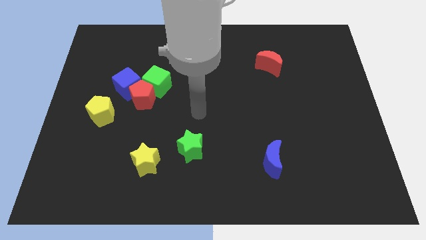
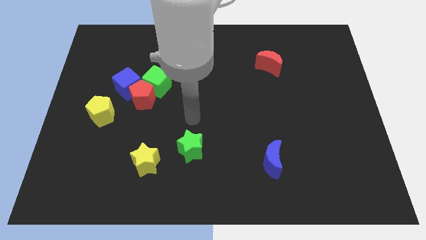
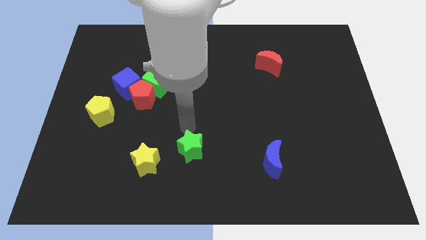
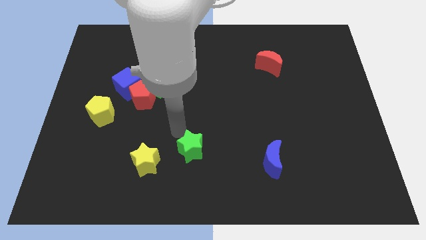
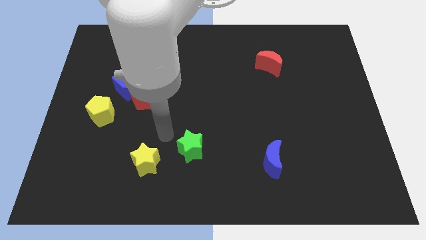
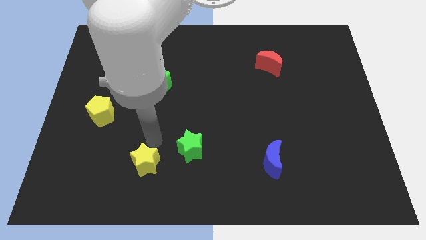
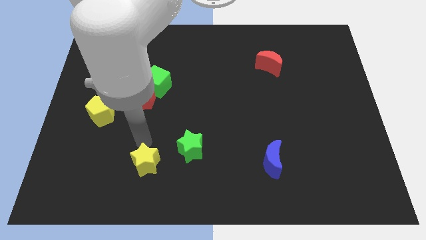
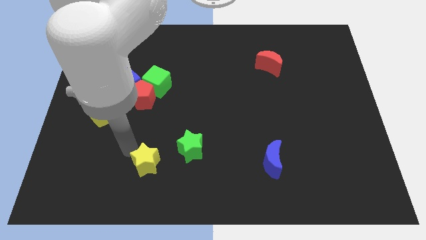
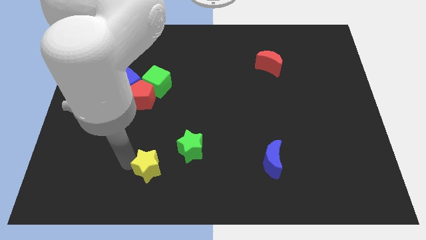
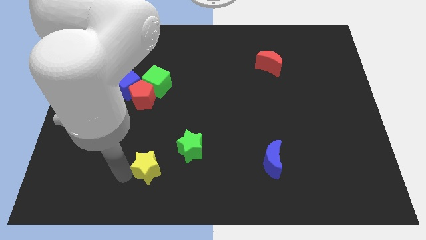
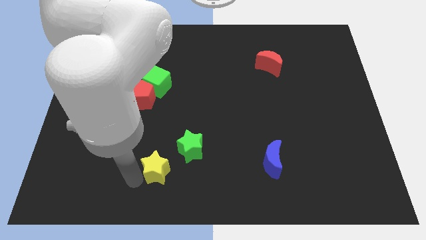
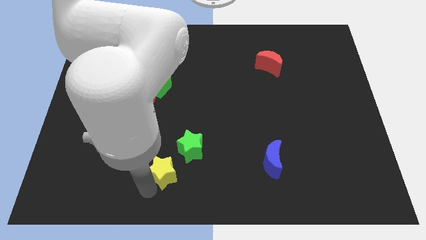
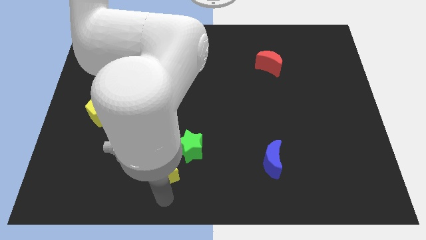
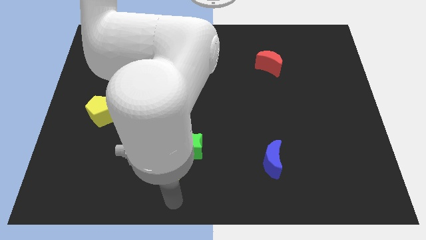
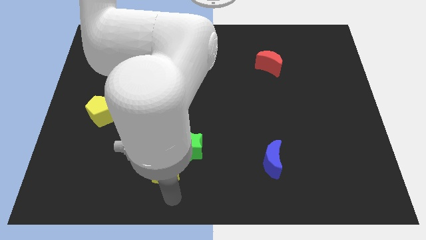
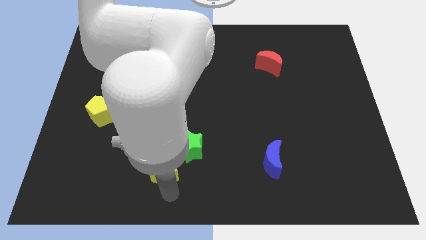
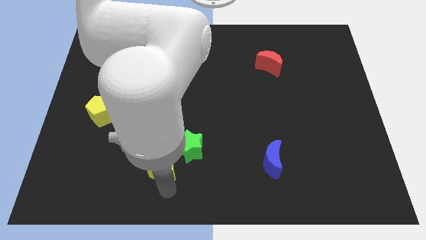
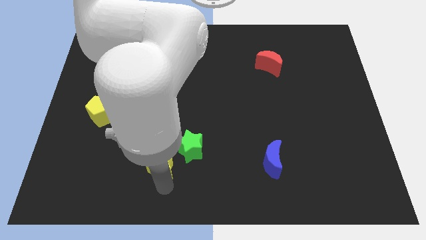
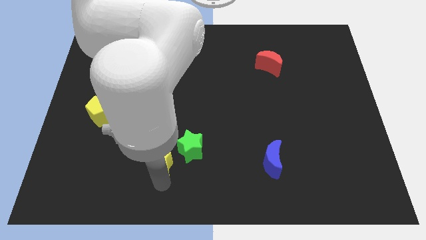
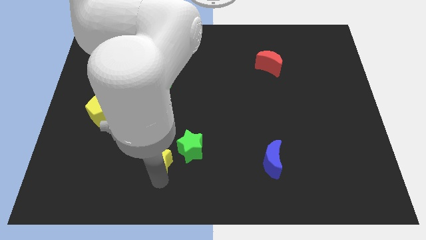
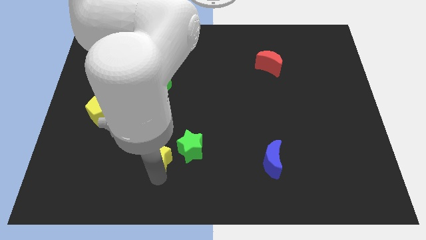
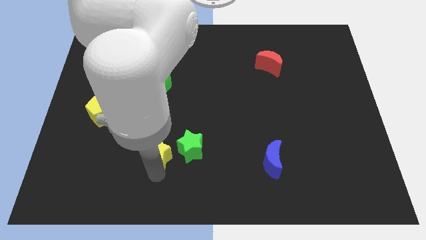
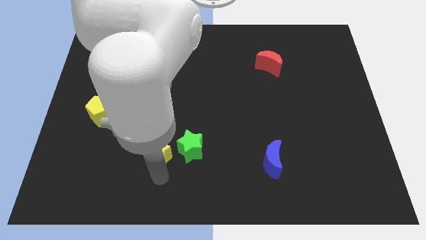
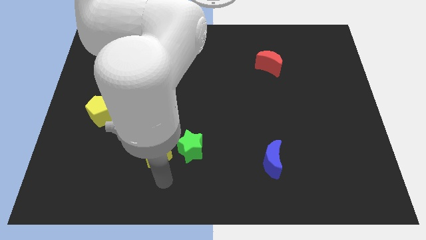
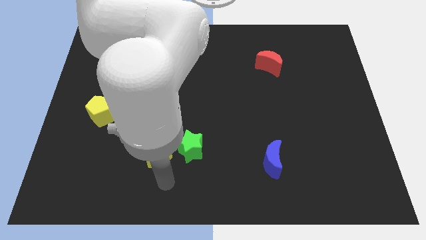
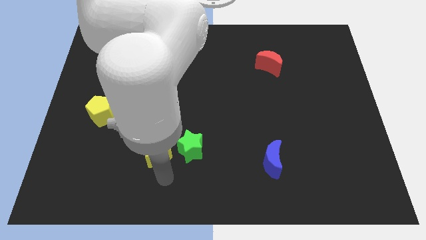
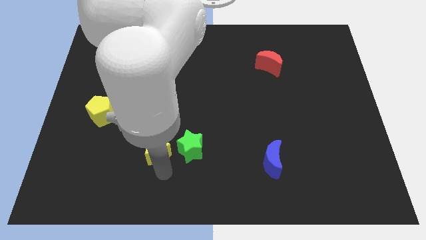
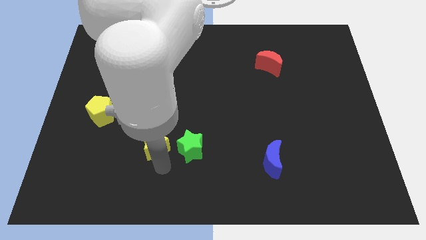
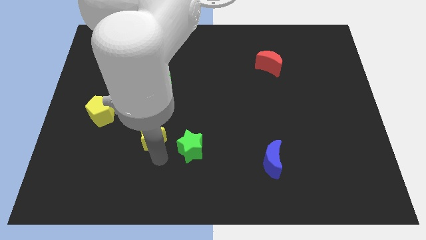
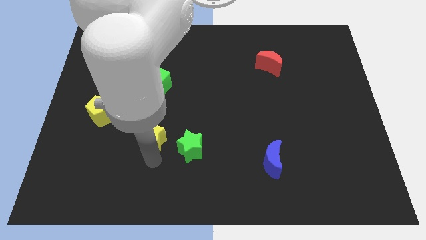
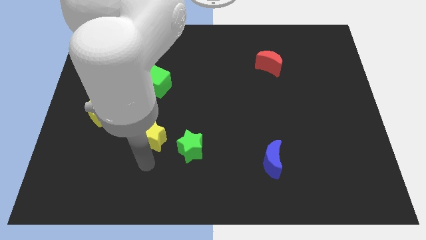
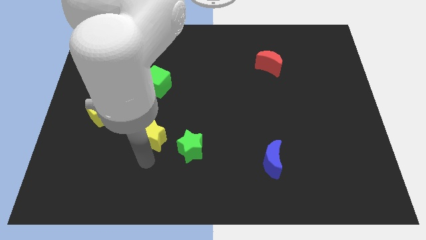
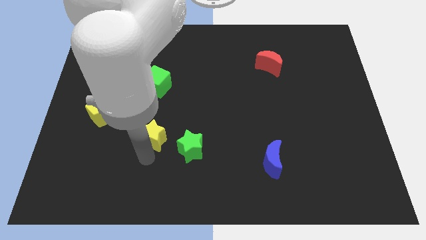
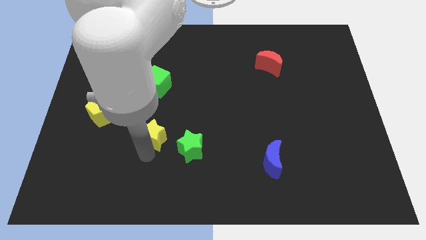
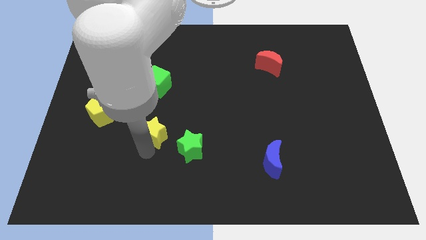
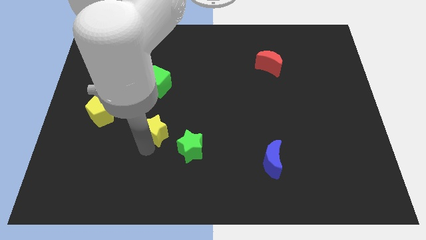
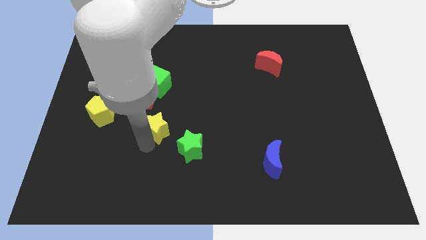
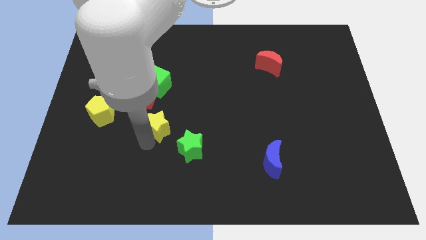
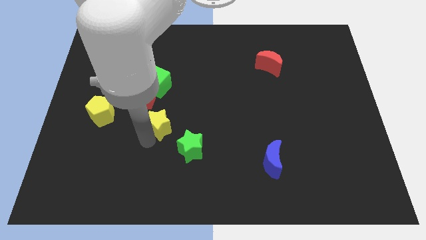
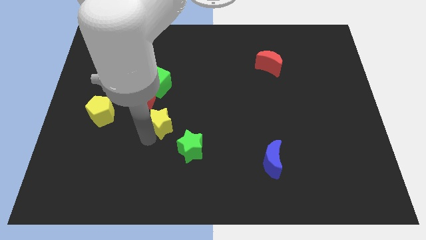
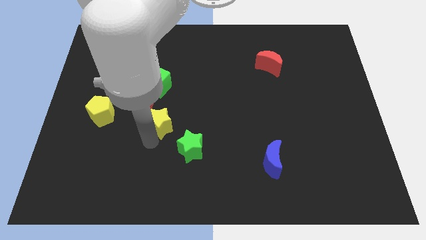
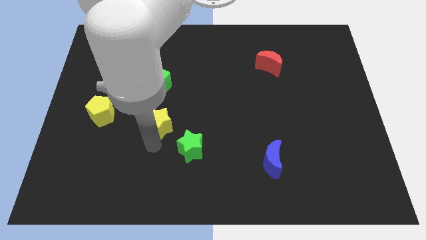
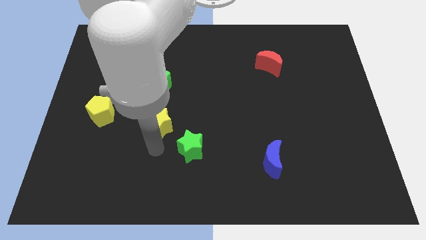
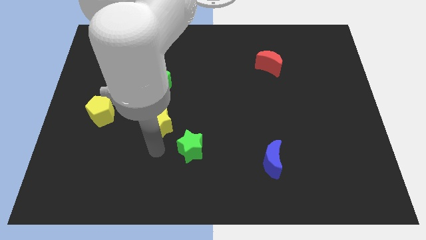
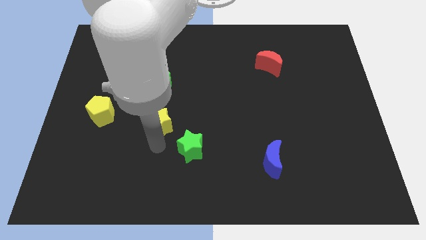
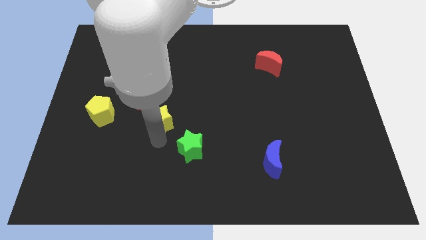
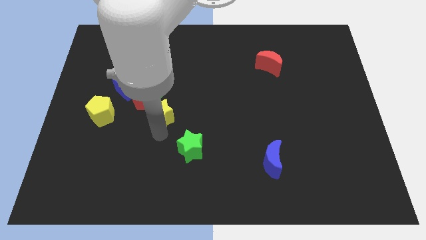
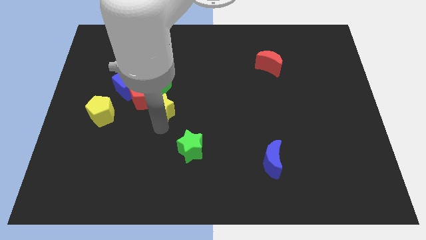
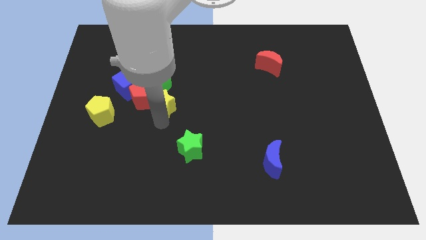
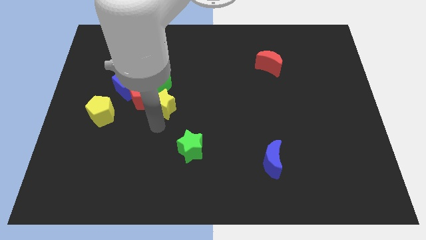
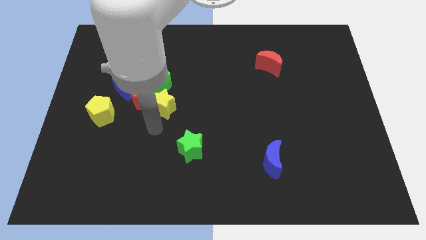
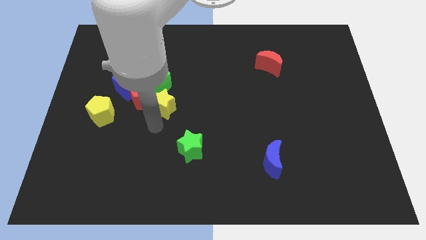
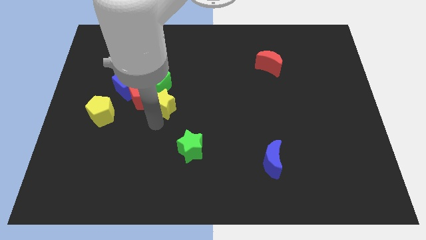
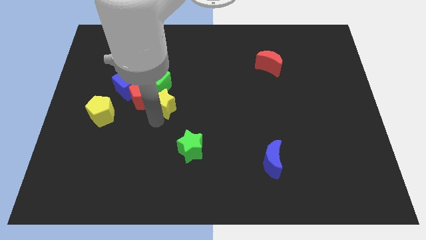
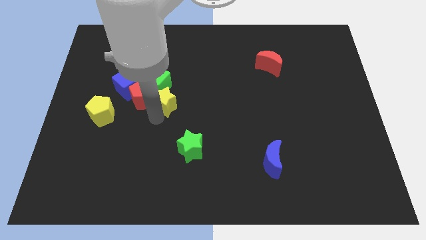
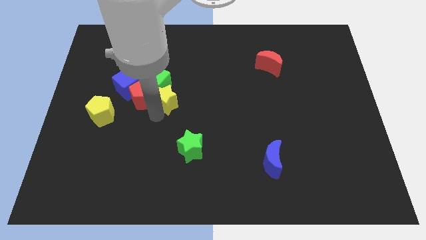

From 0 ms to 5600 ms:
push the yellow star to the top right of the red pentagon

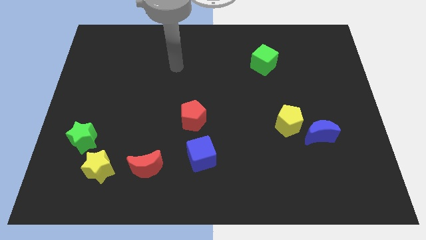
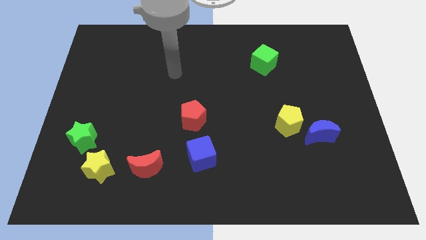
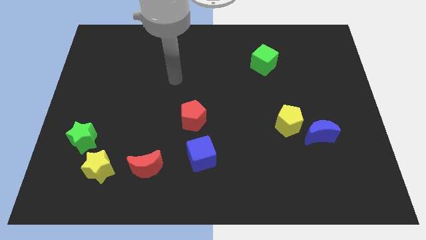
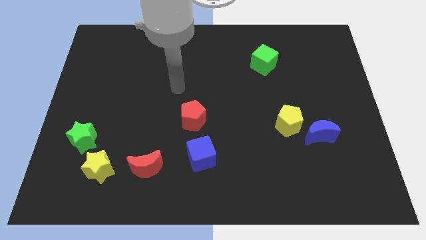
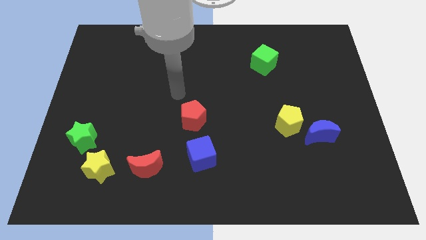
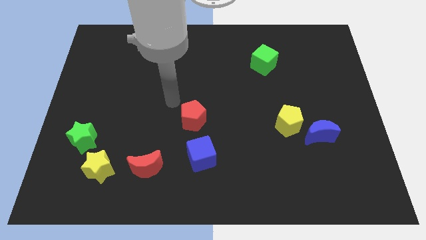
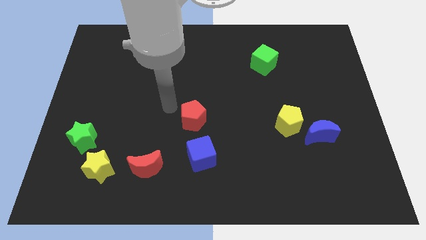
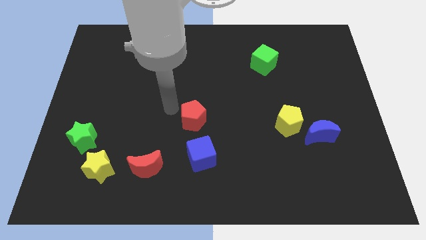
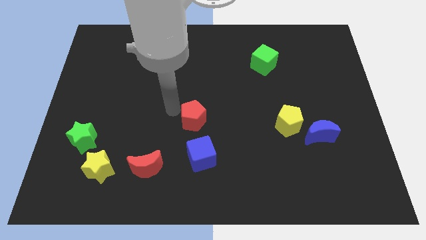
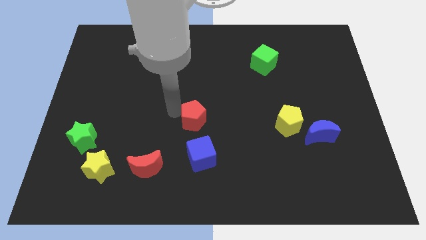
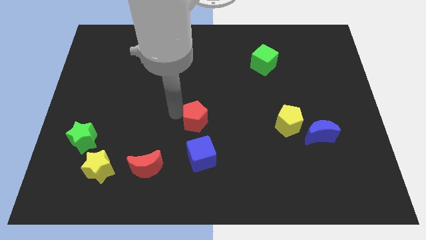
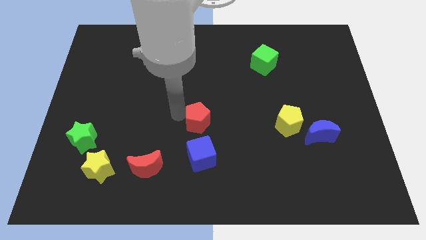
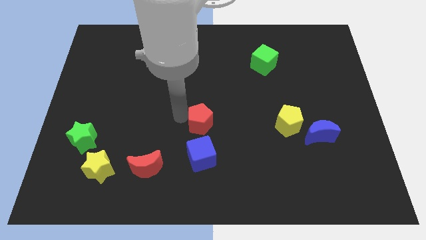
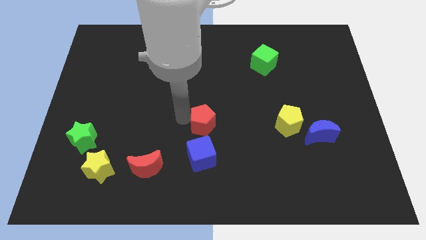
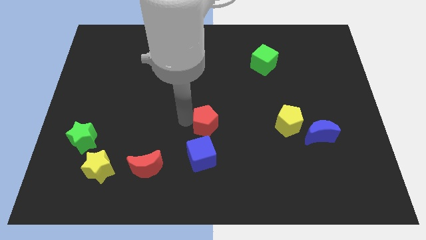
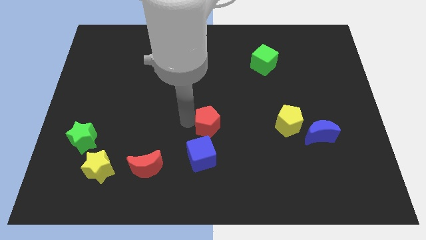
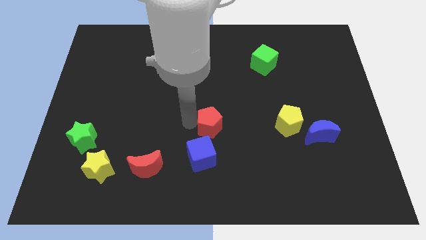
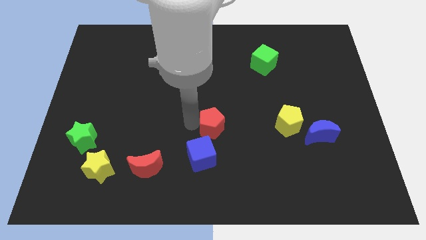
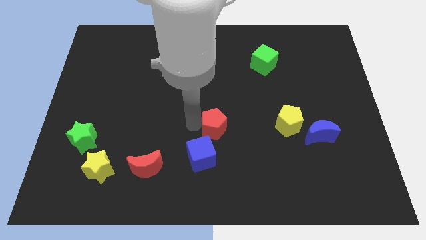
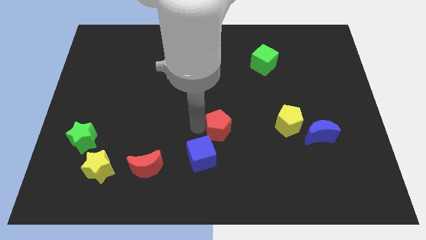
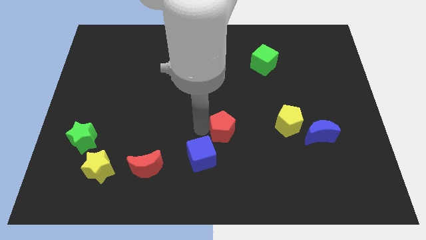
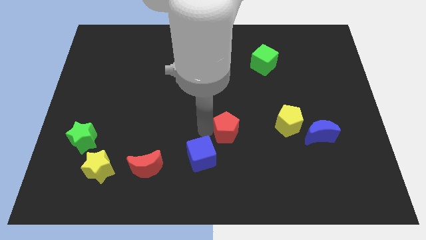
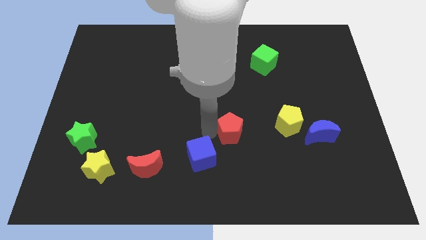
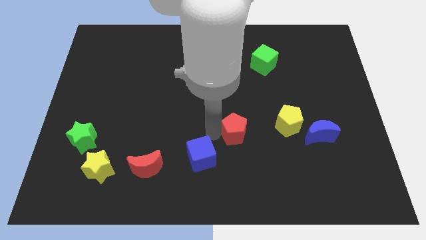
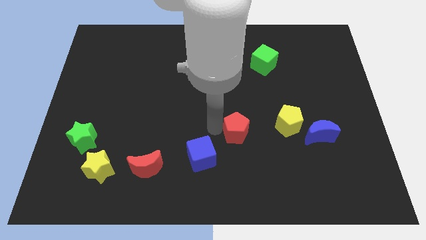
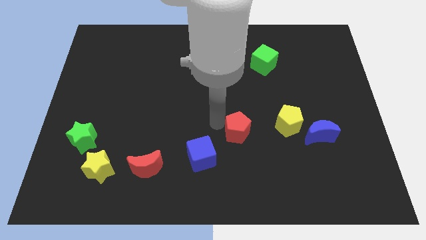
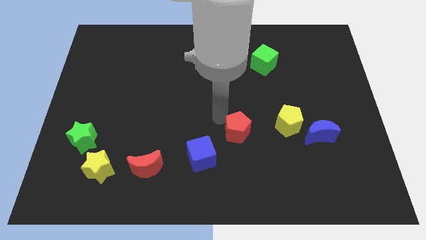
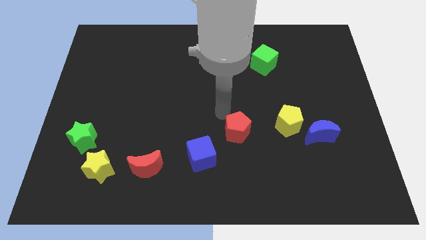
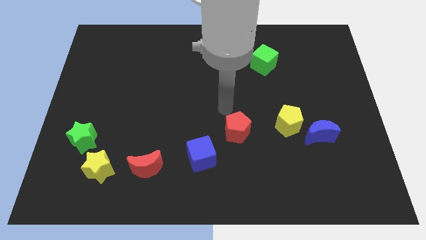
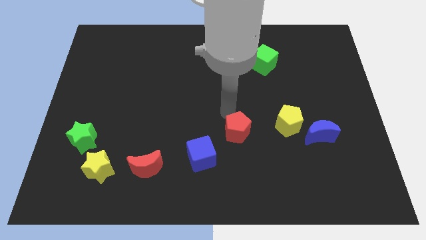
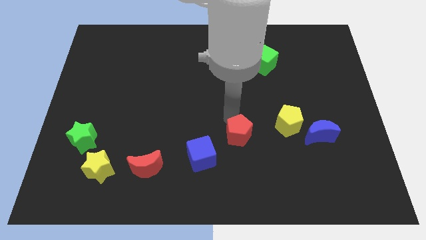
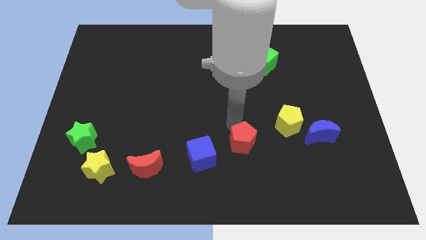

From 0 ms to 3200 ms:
push the red pentagon to the right of the blue cube
